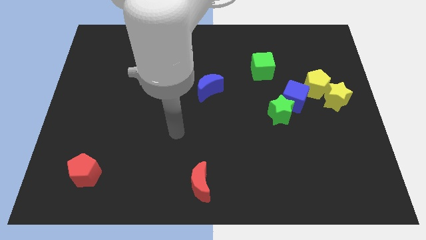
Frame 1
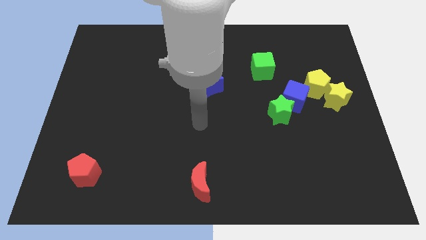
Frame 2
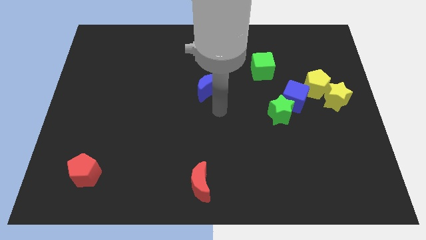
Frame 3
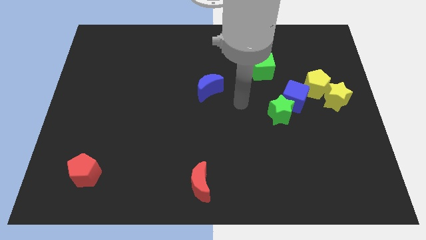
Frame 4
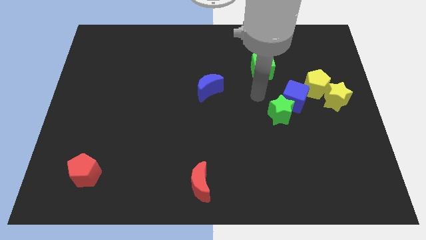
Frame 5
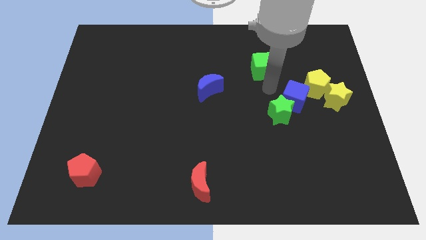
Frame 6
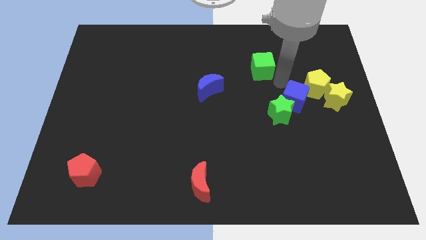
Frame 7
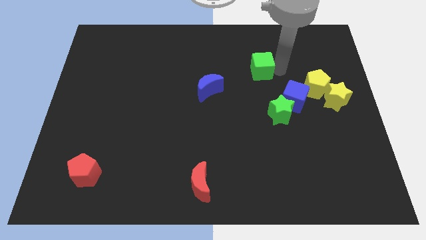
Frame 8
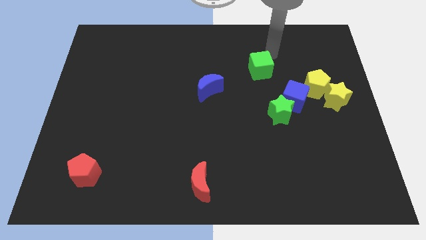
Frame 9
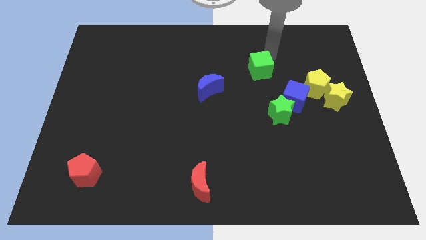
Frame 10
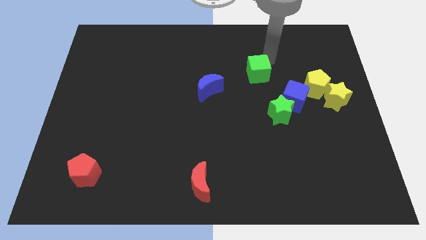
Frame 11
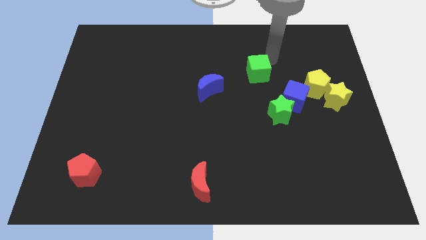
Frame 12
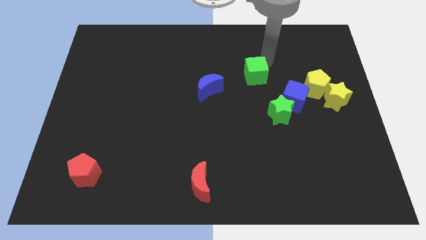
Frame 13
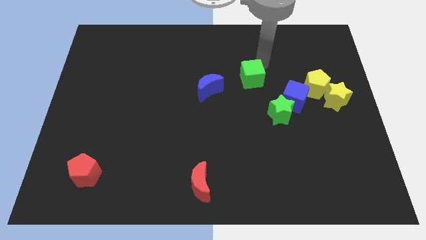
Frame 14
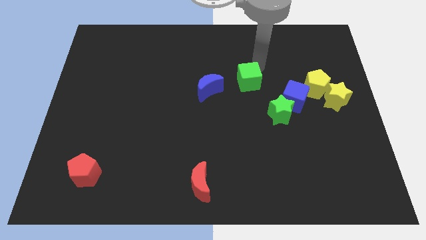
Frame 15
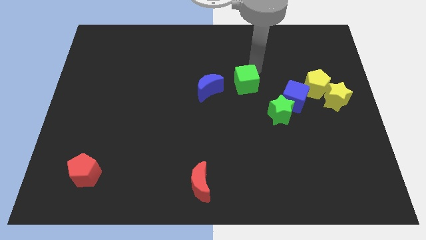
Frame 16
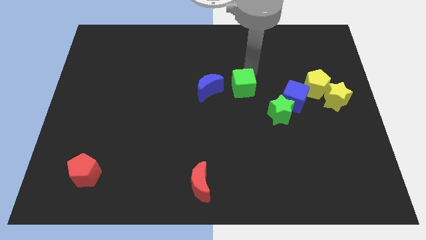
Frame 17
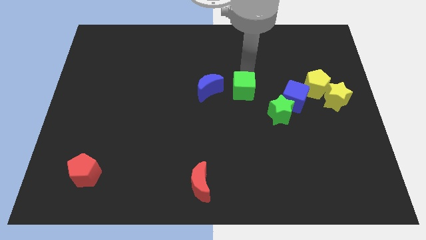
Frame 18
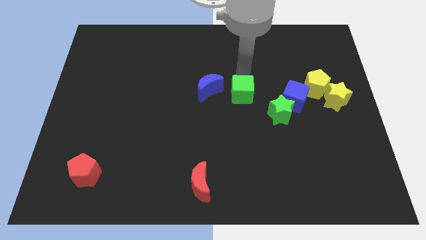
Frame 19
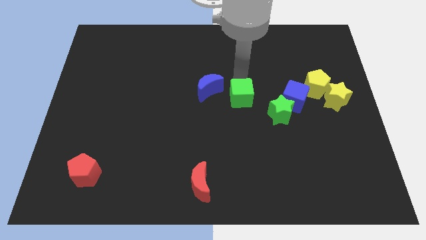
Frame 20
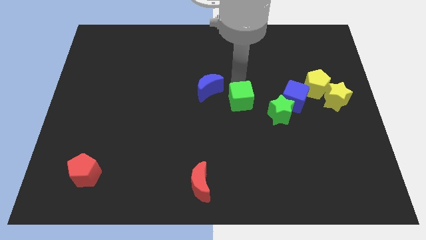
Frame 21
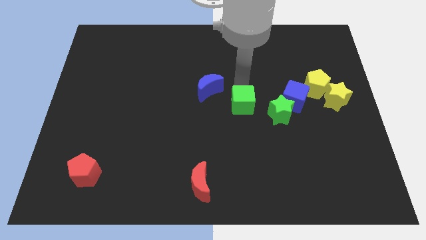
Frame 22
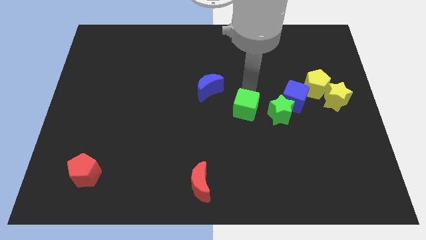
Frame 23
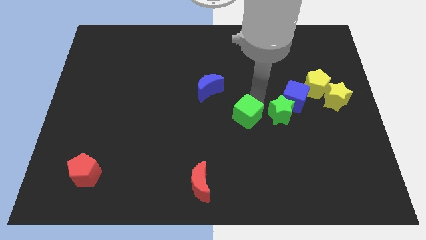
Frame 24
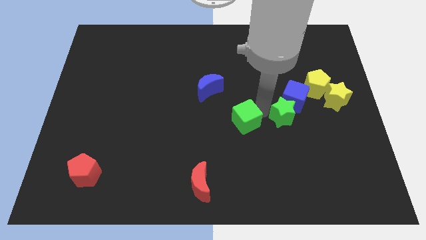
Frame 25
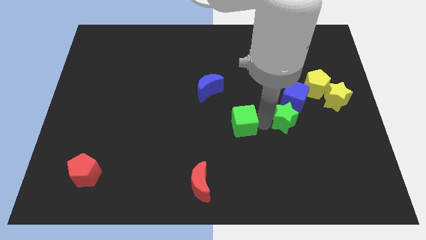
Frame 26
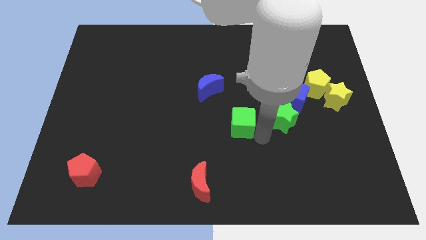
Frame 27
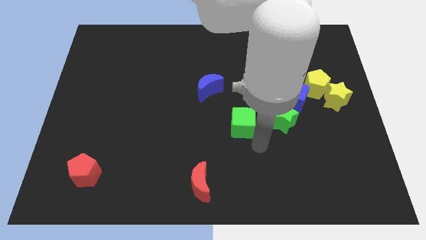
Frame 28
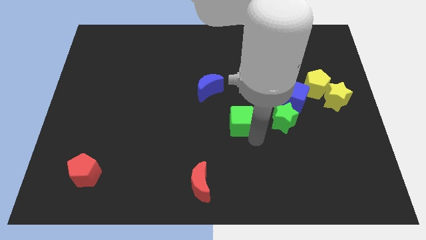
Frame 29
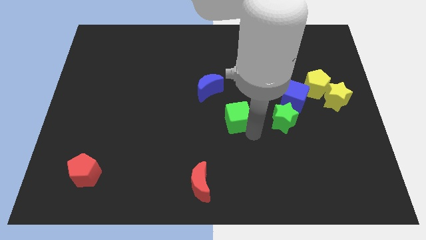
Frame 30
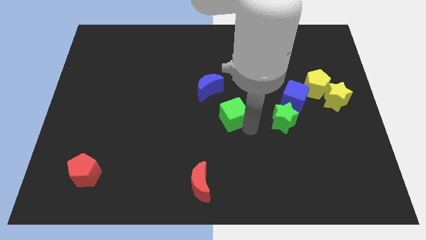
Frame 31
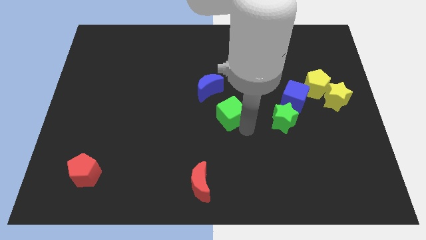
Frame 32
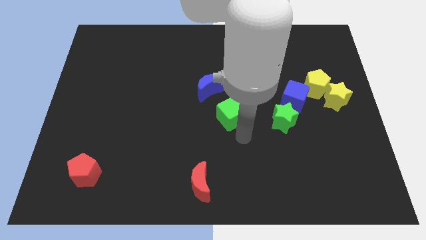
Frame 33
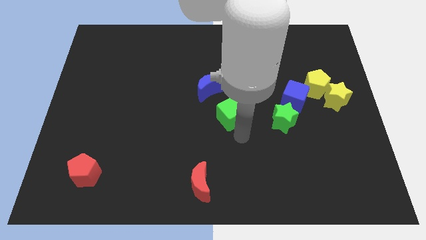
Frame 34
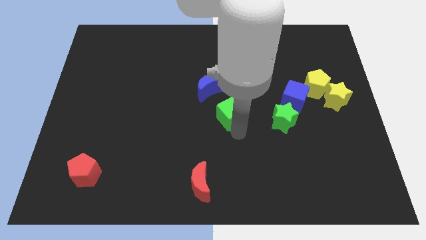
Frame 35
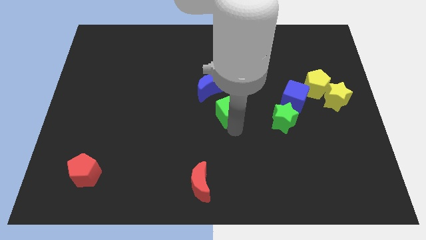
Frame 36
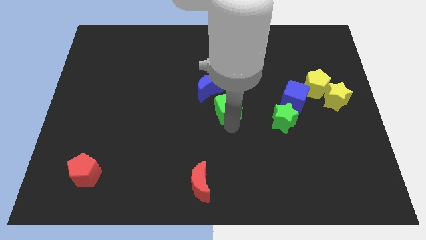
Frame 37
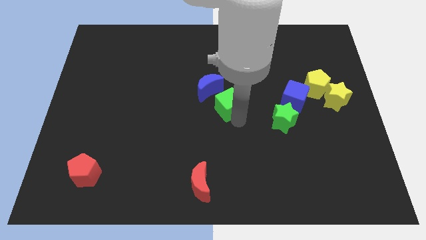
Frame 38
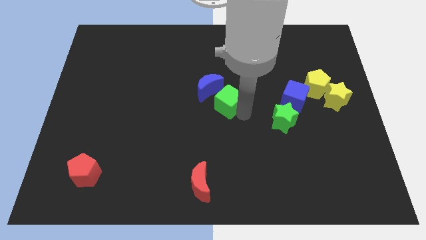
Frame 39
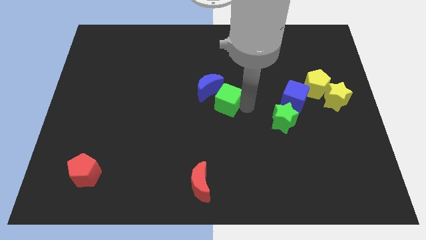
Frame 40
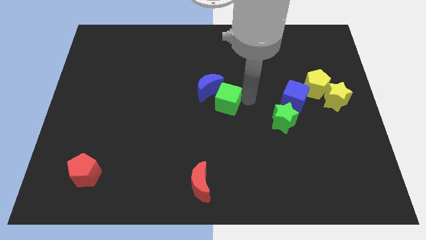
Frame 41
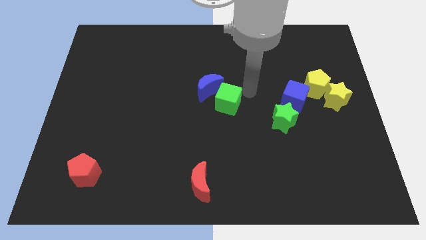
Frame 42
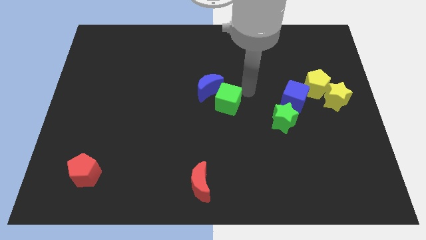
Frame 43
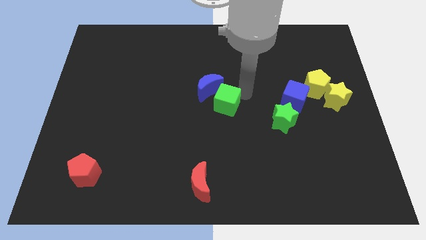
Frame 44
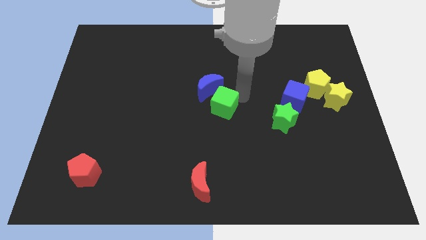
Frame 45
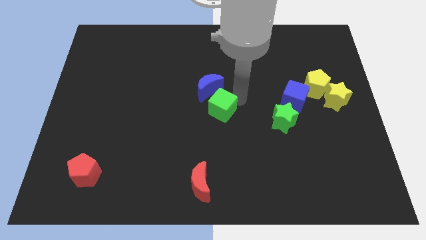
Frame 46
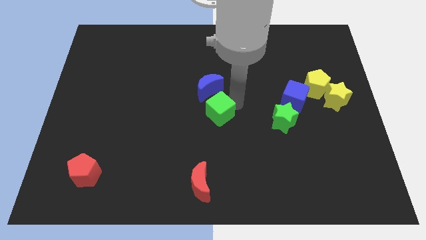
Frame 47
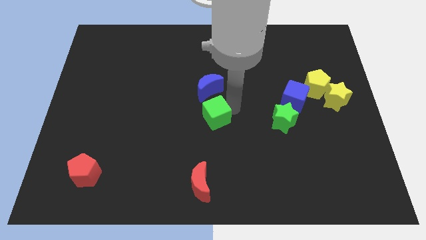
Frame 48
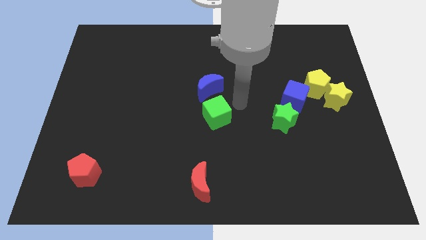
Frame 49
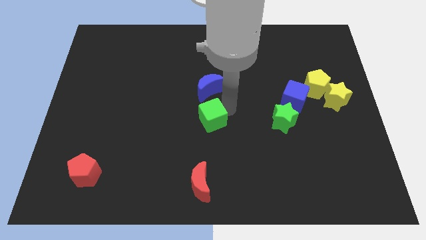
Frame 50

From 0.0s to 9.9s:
push the green cube down and then left

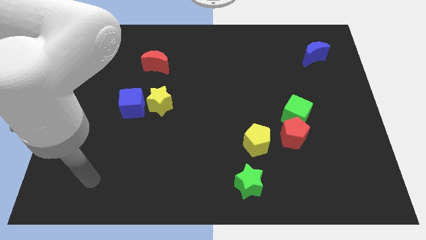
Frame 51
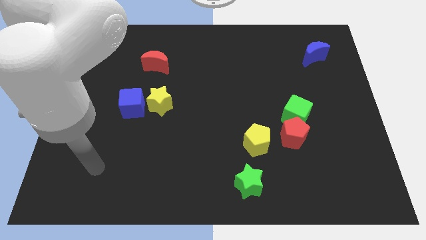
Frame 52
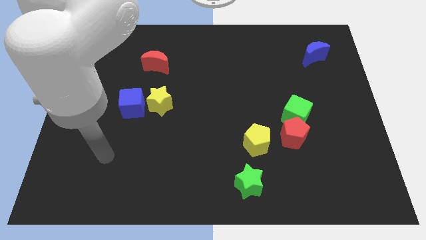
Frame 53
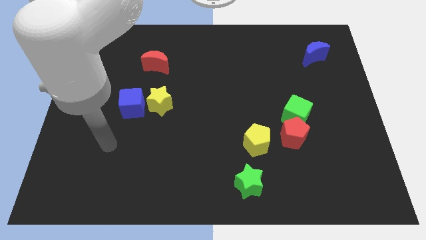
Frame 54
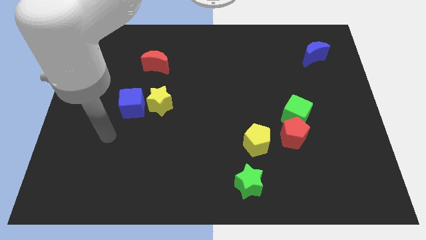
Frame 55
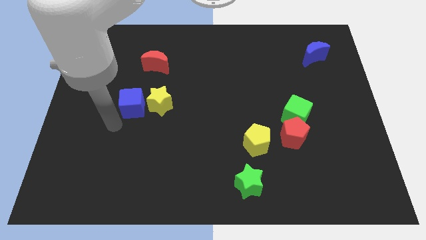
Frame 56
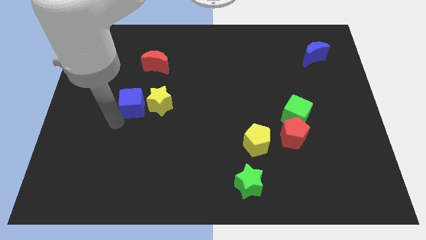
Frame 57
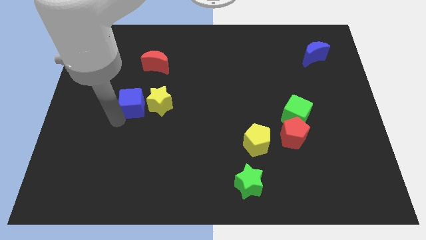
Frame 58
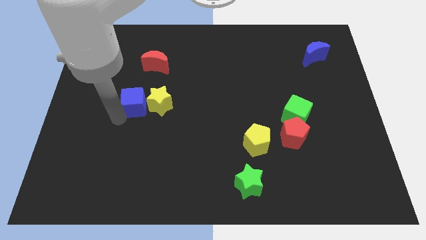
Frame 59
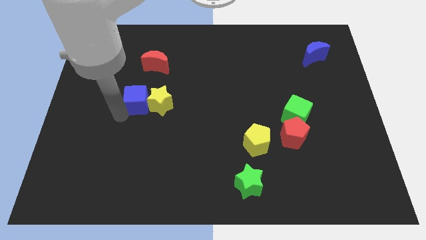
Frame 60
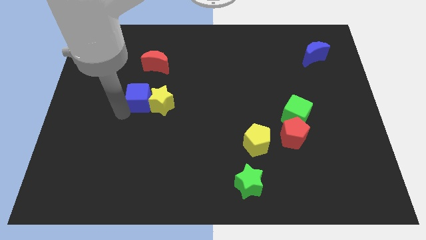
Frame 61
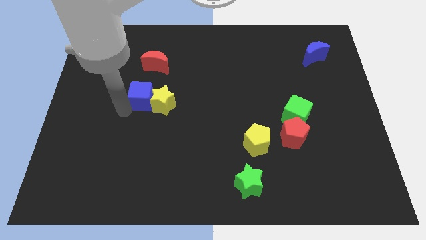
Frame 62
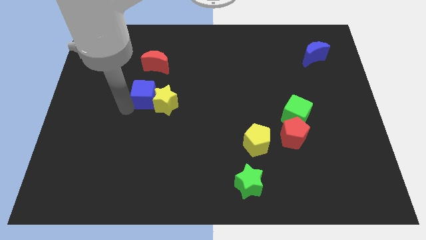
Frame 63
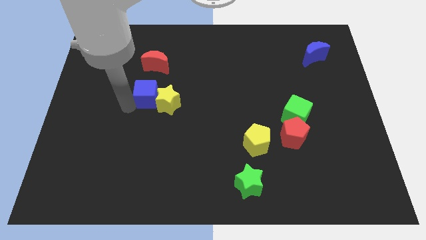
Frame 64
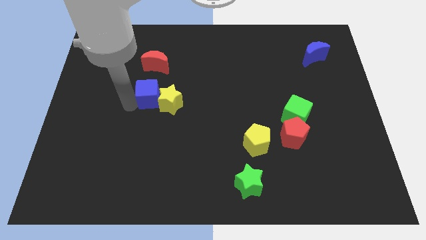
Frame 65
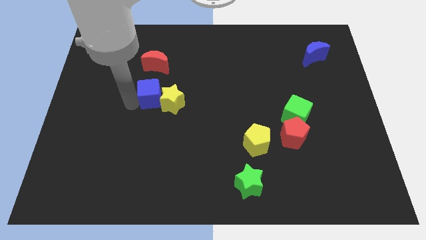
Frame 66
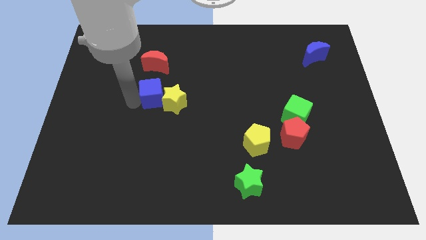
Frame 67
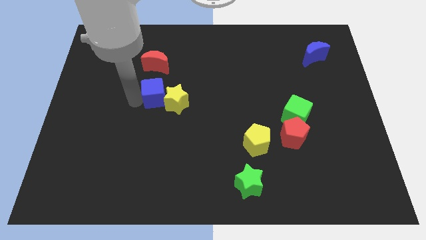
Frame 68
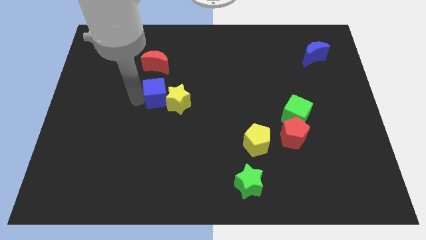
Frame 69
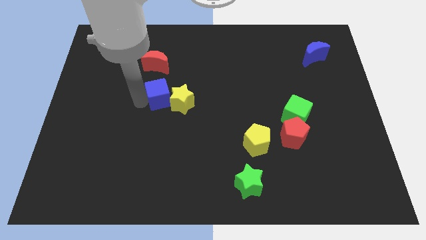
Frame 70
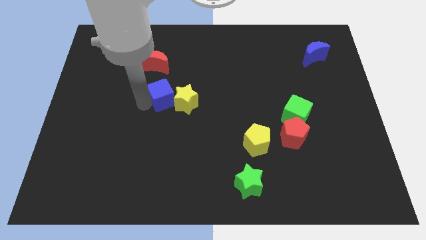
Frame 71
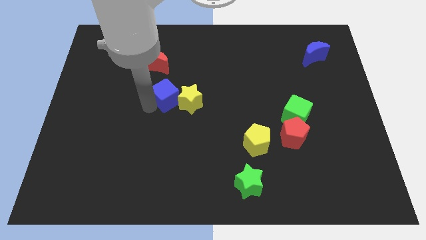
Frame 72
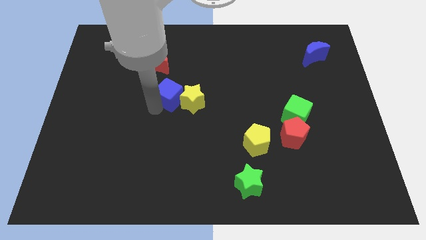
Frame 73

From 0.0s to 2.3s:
move the blue cube a bit upwards and right

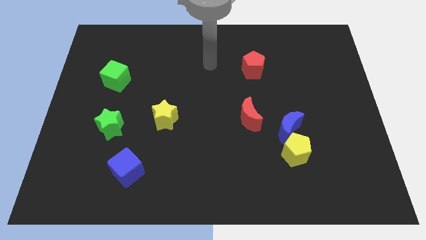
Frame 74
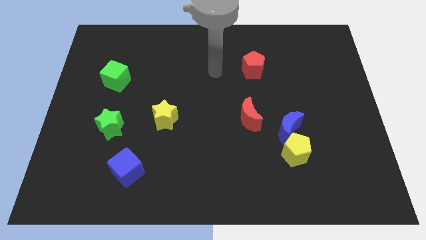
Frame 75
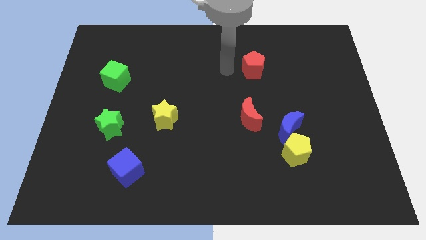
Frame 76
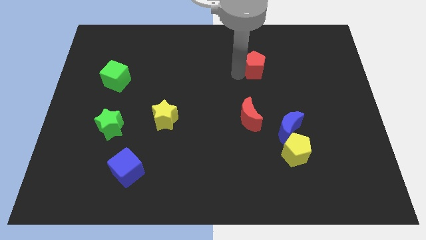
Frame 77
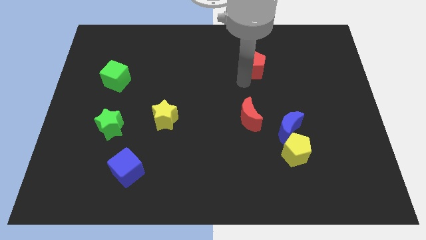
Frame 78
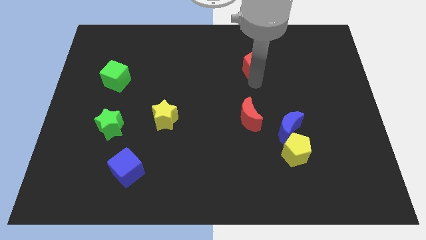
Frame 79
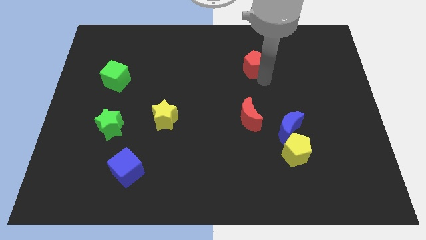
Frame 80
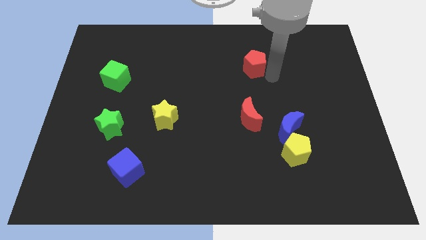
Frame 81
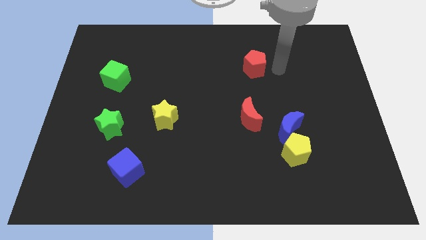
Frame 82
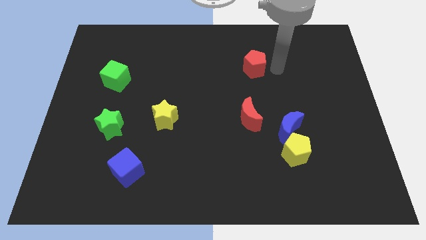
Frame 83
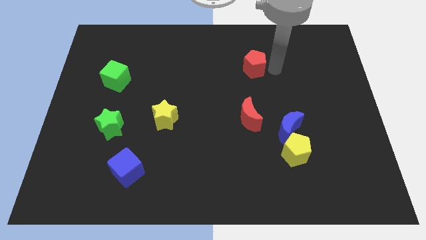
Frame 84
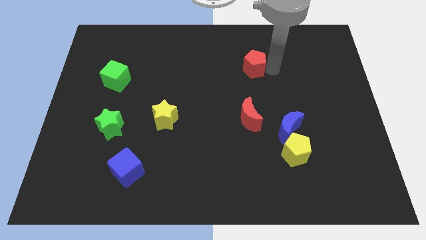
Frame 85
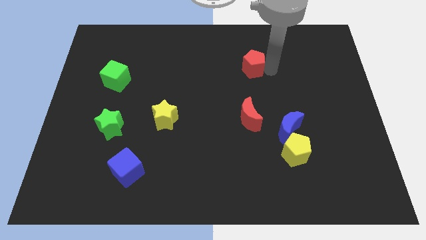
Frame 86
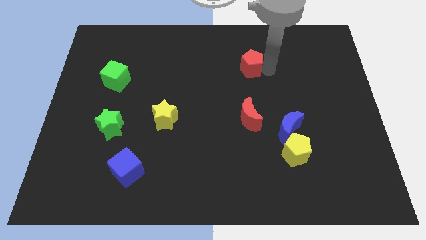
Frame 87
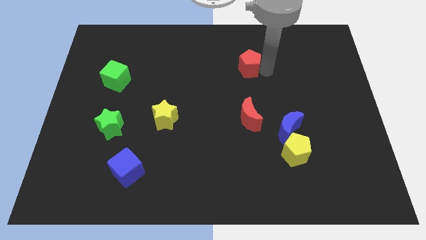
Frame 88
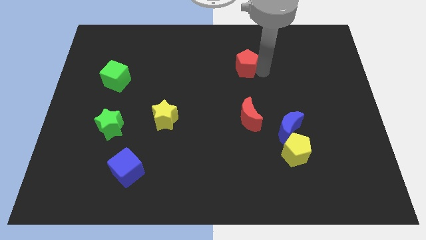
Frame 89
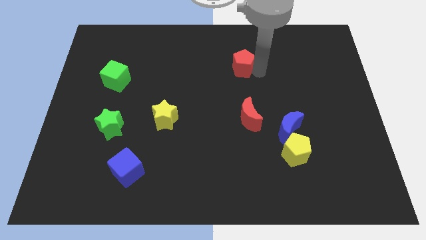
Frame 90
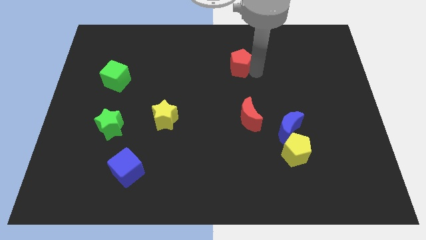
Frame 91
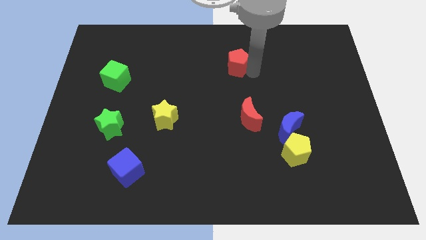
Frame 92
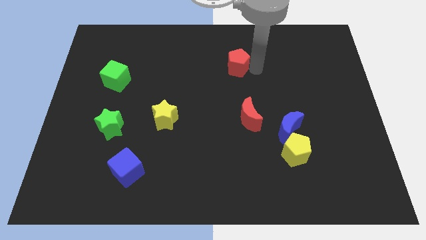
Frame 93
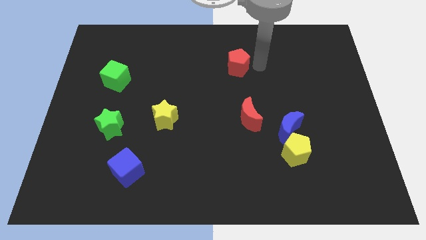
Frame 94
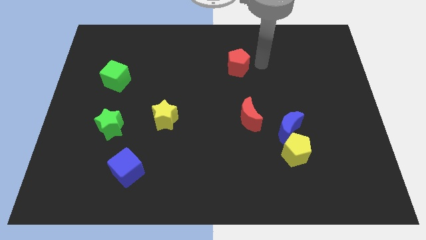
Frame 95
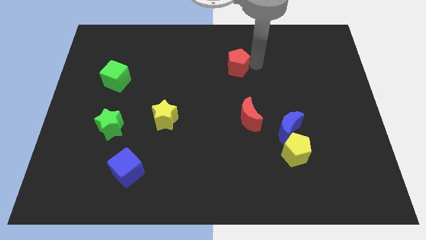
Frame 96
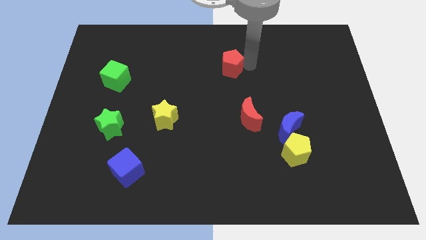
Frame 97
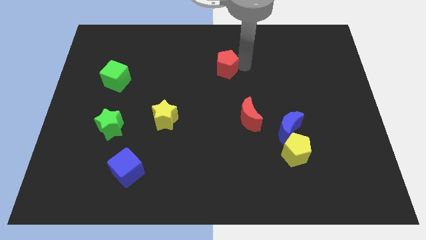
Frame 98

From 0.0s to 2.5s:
move the red pentagon a bit left
